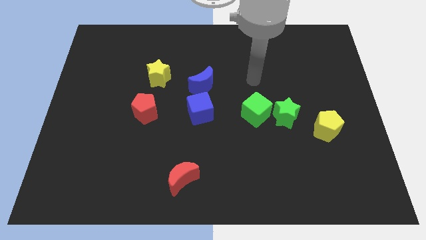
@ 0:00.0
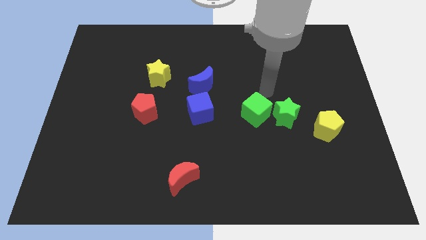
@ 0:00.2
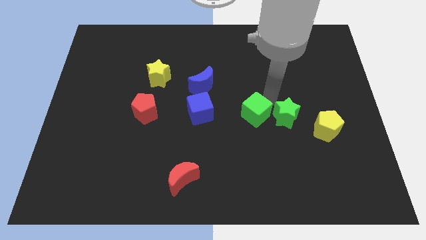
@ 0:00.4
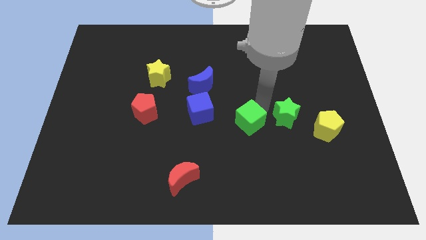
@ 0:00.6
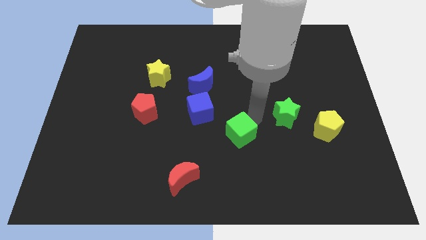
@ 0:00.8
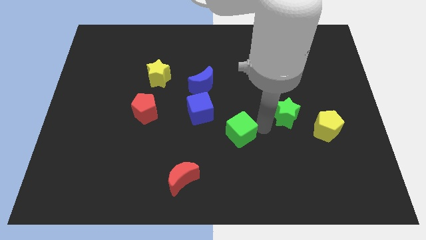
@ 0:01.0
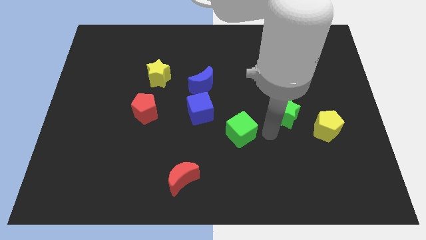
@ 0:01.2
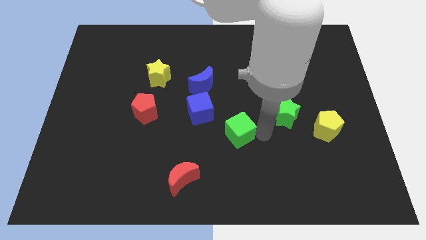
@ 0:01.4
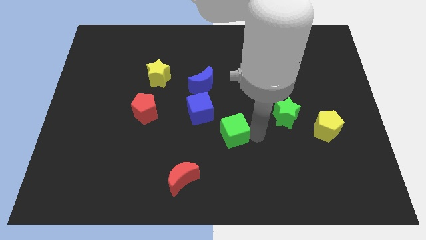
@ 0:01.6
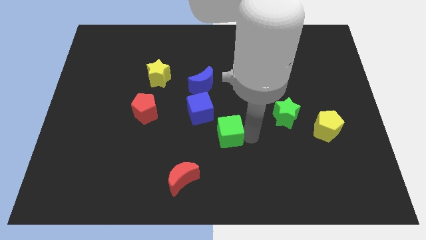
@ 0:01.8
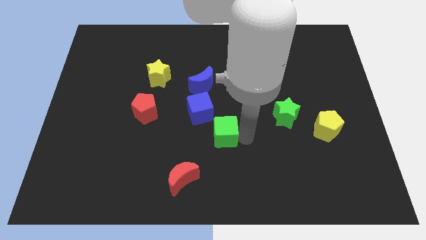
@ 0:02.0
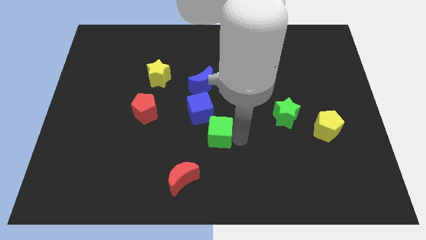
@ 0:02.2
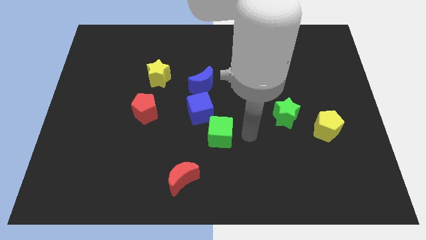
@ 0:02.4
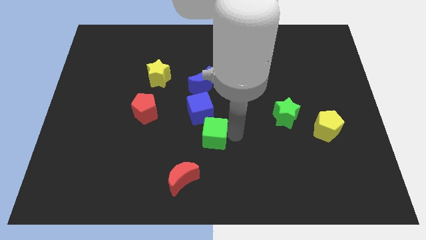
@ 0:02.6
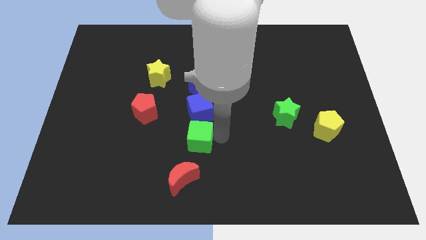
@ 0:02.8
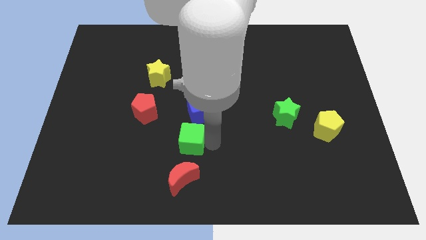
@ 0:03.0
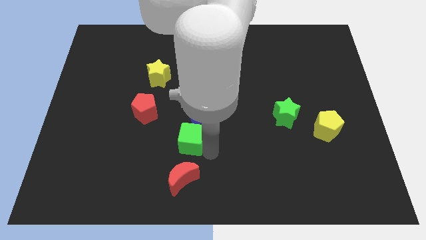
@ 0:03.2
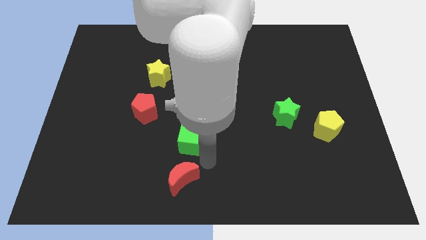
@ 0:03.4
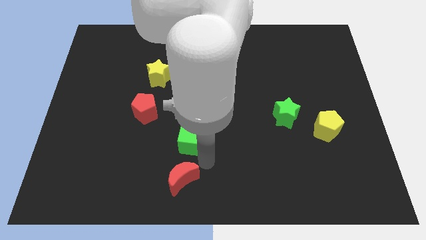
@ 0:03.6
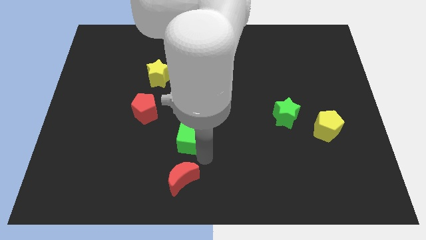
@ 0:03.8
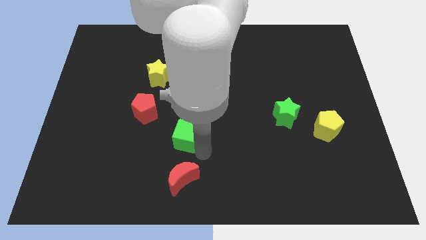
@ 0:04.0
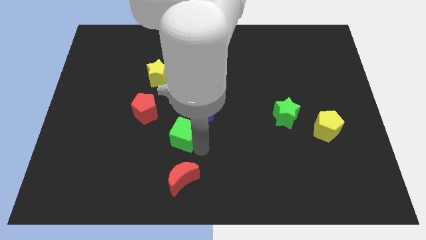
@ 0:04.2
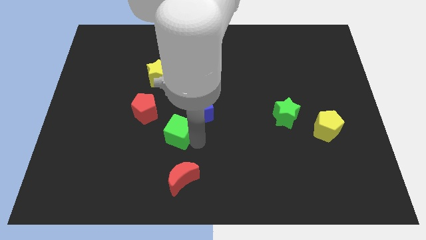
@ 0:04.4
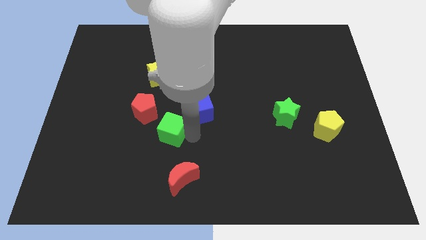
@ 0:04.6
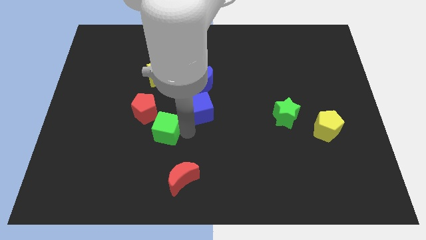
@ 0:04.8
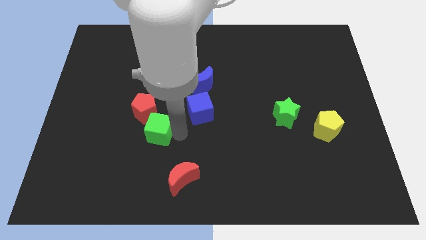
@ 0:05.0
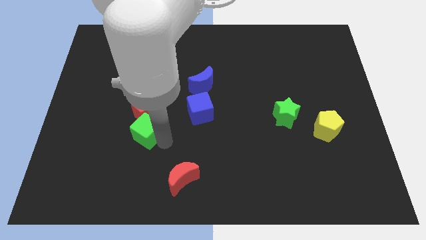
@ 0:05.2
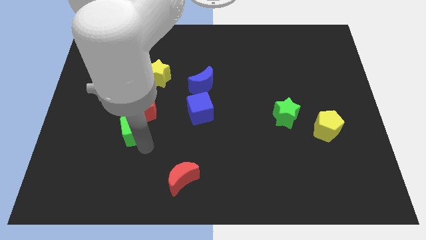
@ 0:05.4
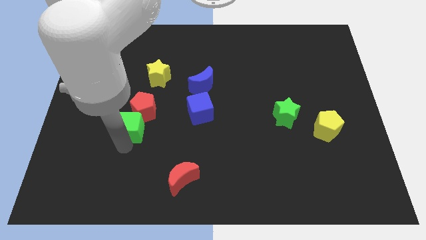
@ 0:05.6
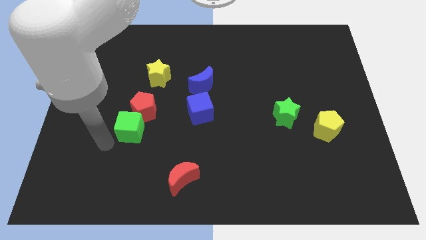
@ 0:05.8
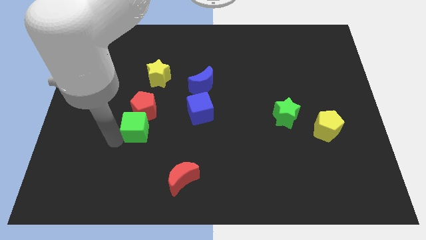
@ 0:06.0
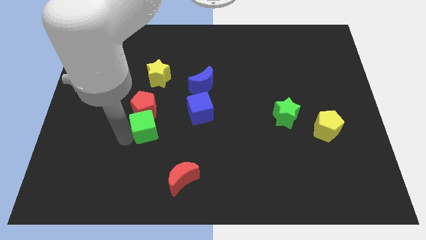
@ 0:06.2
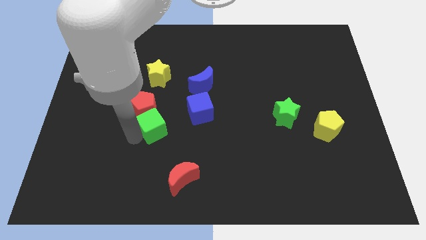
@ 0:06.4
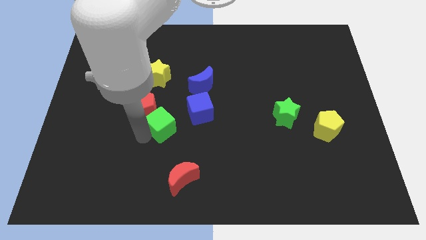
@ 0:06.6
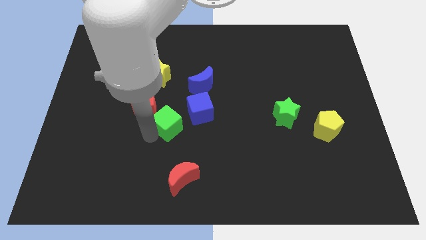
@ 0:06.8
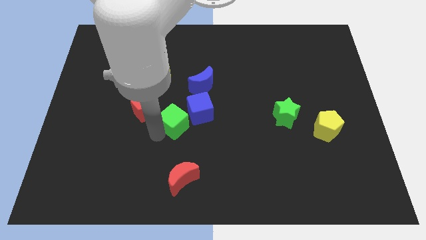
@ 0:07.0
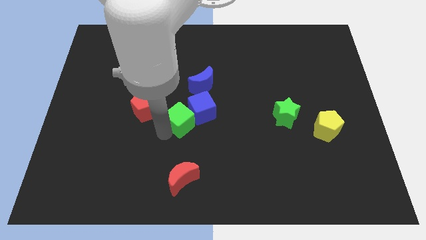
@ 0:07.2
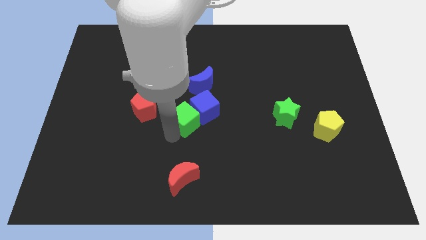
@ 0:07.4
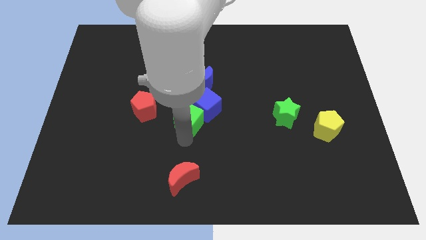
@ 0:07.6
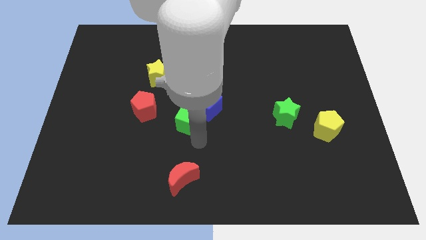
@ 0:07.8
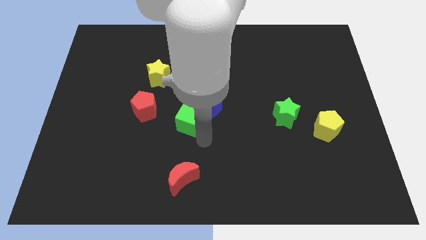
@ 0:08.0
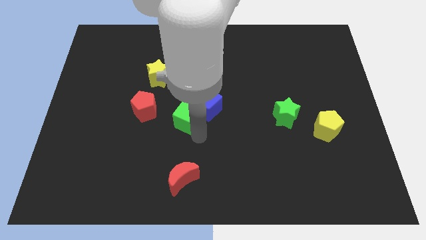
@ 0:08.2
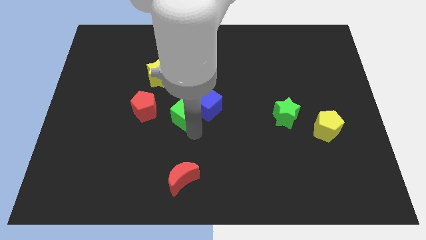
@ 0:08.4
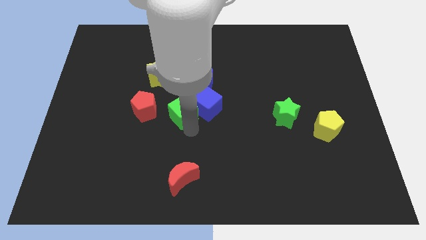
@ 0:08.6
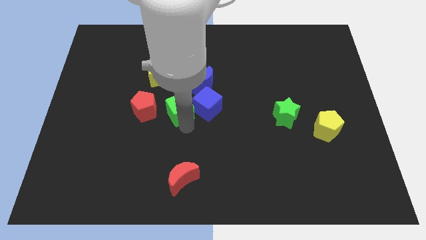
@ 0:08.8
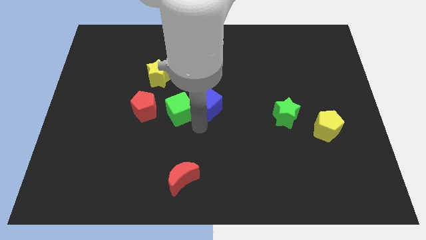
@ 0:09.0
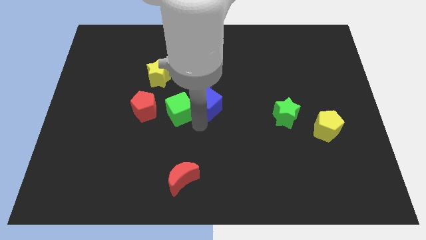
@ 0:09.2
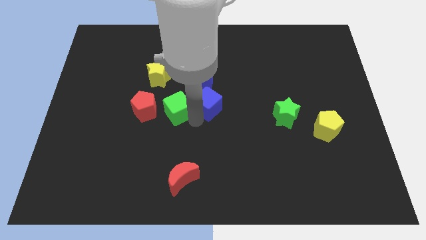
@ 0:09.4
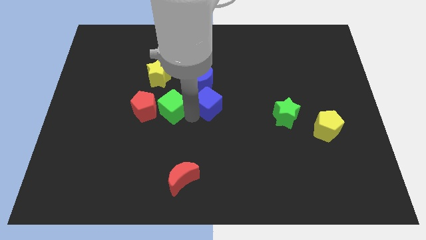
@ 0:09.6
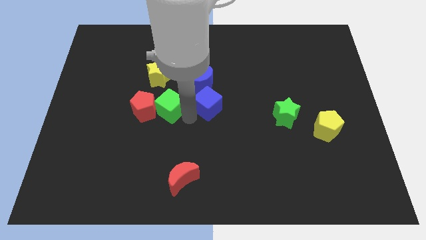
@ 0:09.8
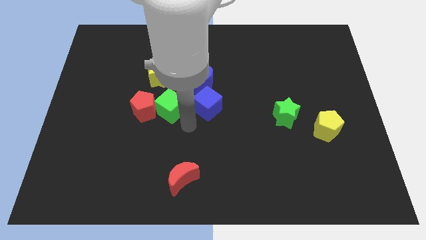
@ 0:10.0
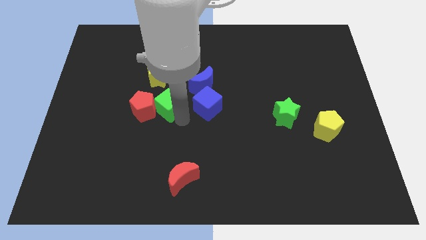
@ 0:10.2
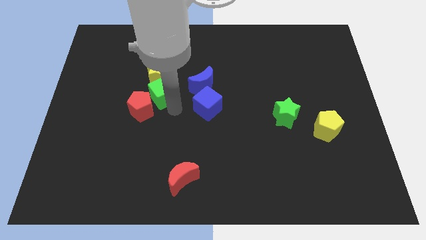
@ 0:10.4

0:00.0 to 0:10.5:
put the green cube just left of the blue moon

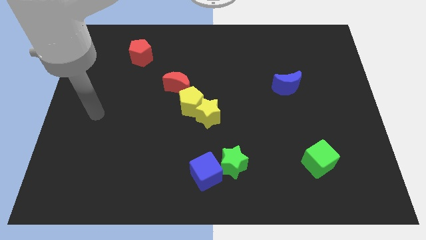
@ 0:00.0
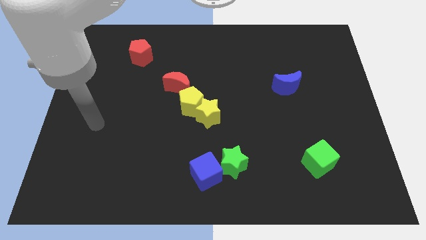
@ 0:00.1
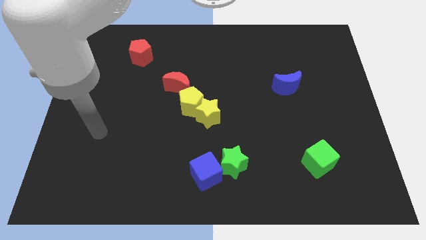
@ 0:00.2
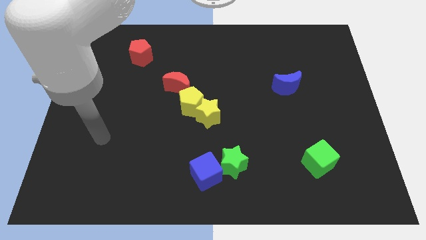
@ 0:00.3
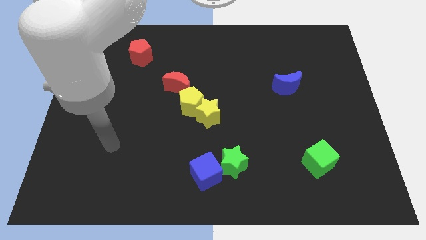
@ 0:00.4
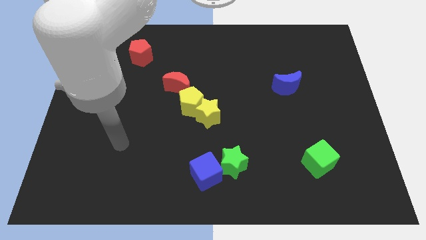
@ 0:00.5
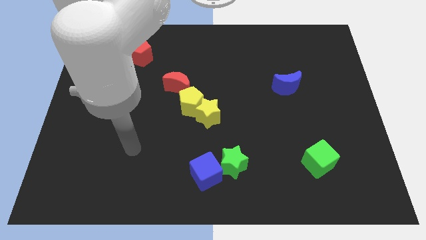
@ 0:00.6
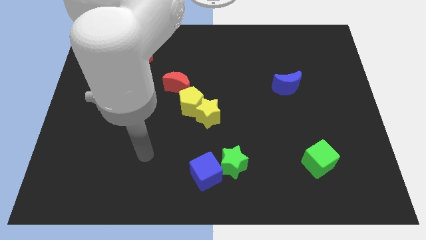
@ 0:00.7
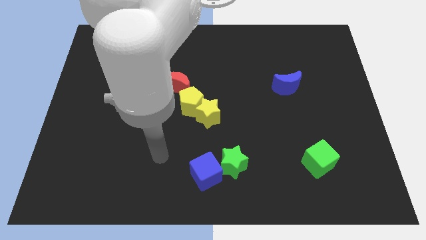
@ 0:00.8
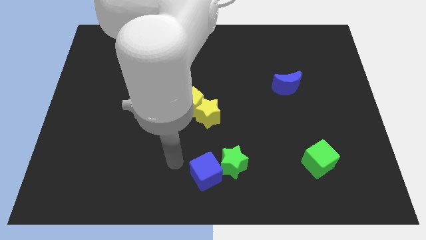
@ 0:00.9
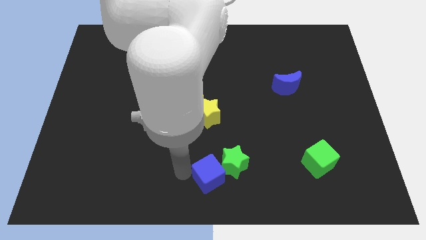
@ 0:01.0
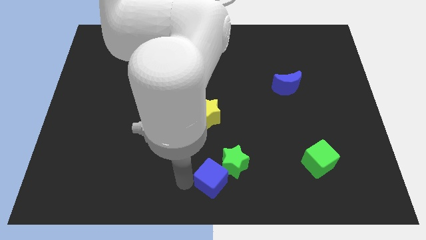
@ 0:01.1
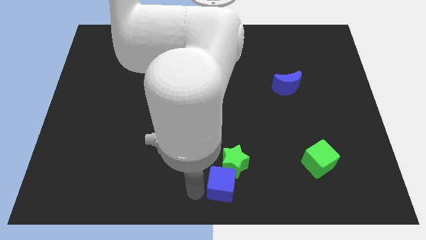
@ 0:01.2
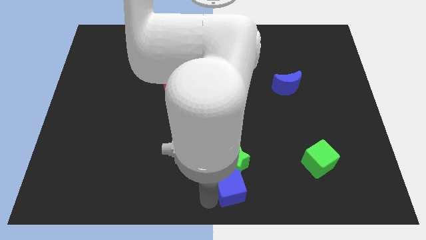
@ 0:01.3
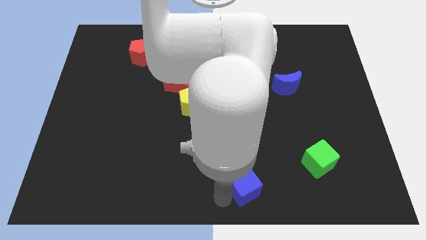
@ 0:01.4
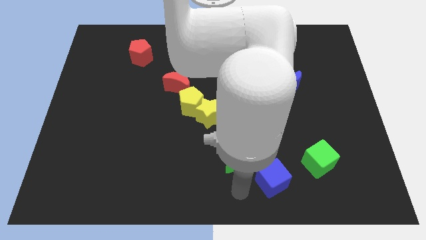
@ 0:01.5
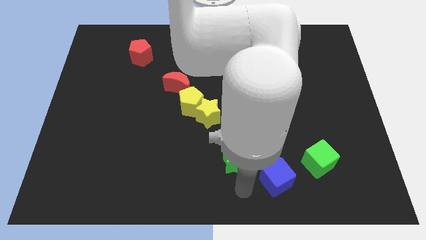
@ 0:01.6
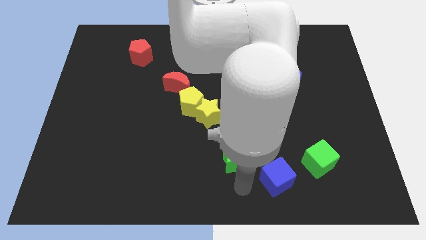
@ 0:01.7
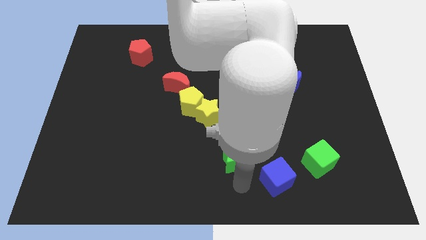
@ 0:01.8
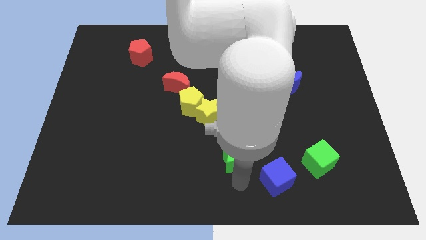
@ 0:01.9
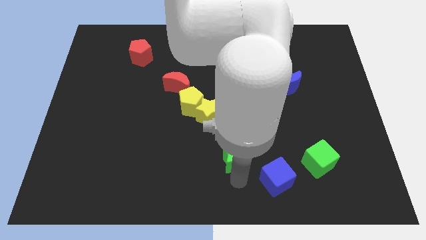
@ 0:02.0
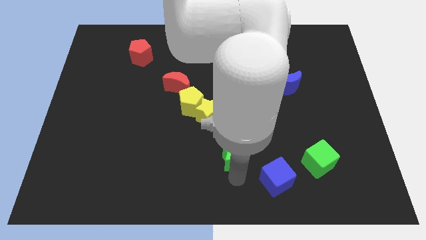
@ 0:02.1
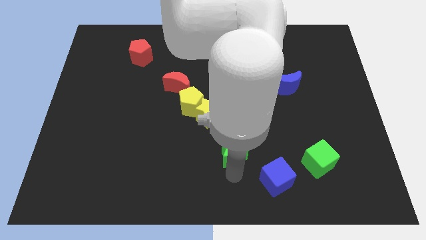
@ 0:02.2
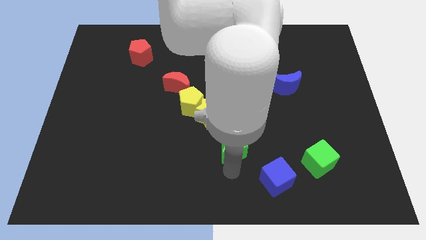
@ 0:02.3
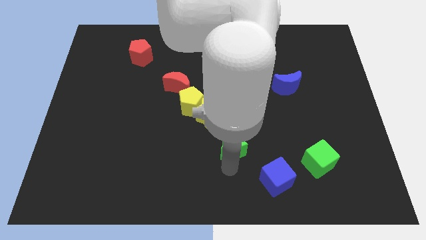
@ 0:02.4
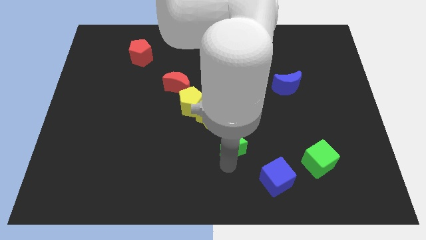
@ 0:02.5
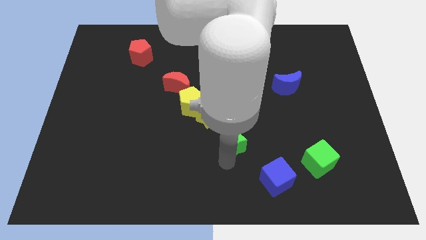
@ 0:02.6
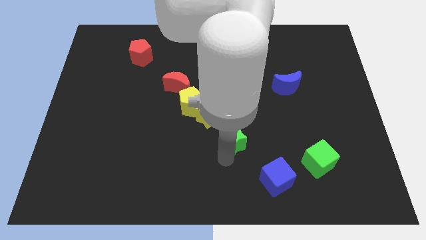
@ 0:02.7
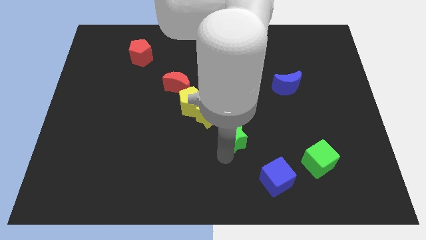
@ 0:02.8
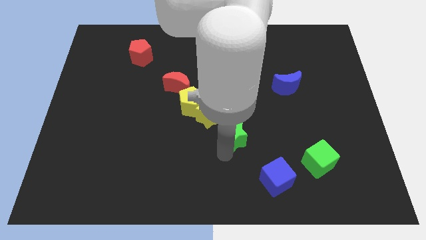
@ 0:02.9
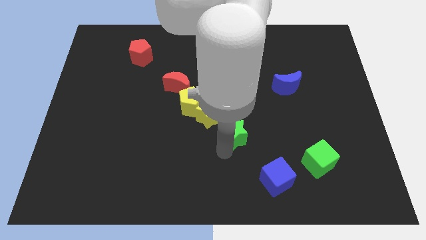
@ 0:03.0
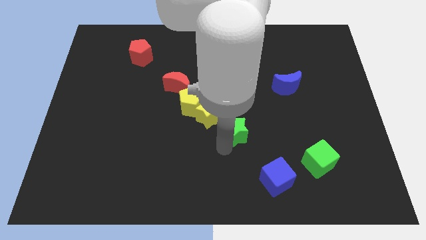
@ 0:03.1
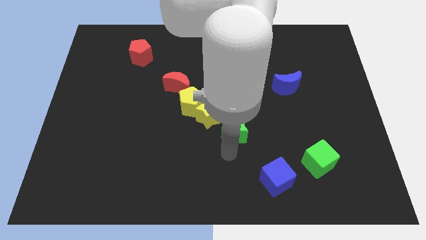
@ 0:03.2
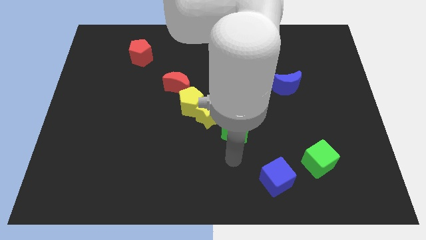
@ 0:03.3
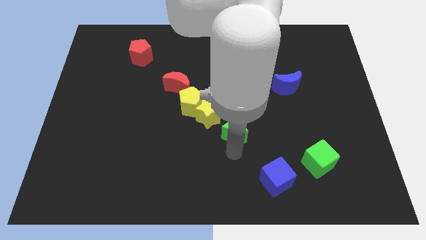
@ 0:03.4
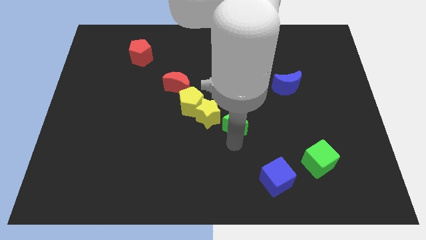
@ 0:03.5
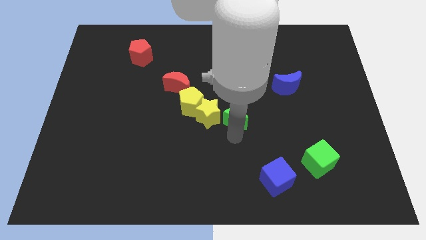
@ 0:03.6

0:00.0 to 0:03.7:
slide the green star to the right of the yellow pentagon
